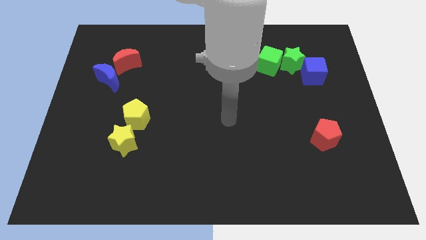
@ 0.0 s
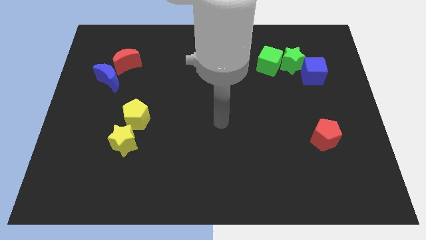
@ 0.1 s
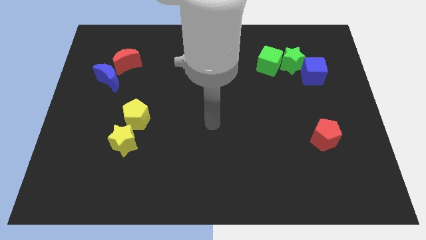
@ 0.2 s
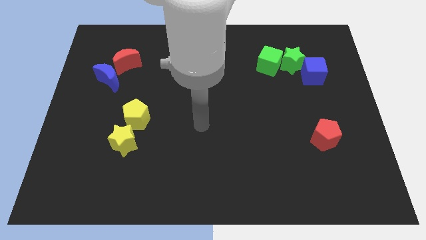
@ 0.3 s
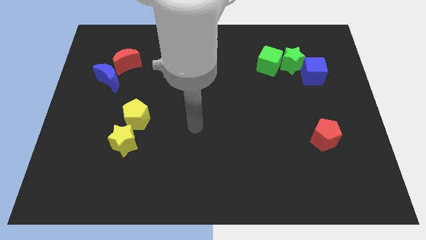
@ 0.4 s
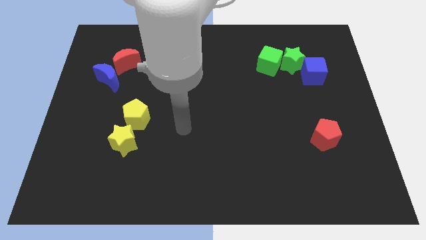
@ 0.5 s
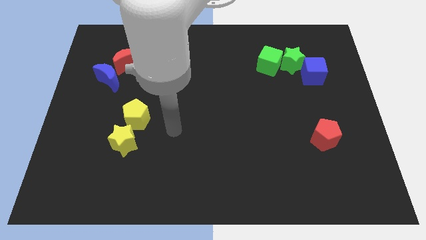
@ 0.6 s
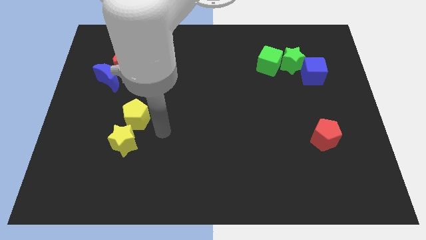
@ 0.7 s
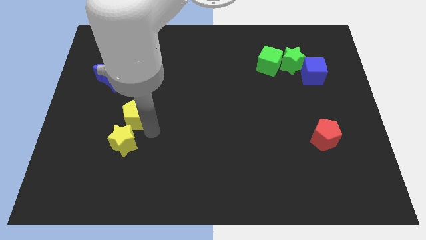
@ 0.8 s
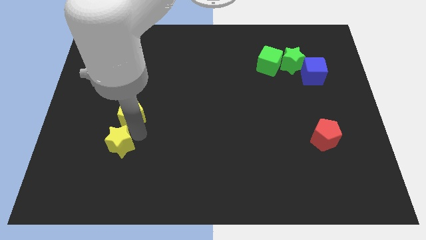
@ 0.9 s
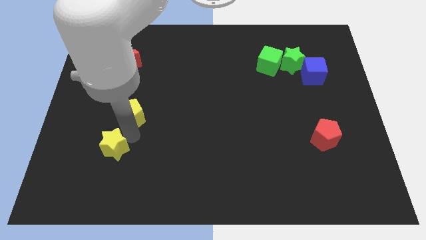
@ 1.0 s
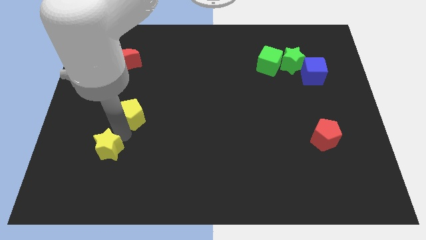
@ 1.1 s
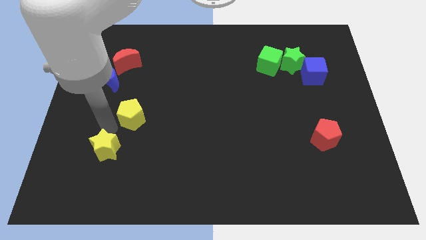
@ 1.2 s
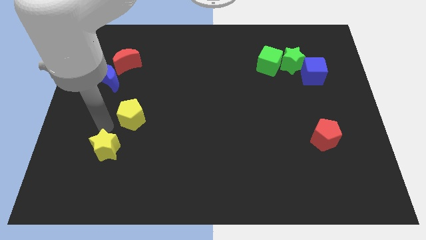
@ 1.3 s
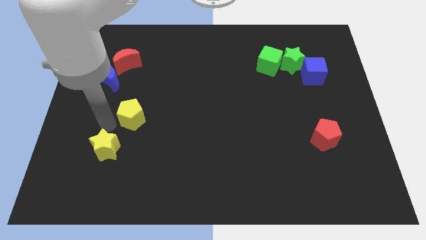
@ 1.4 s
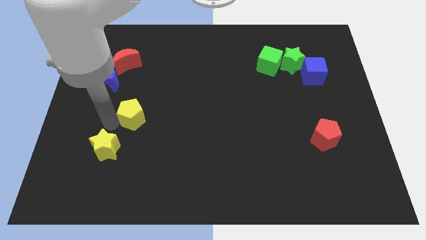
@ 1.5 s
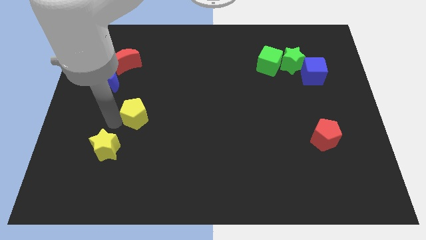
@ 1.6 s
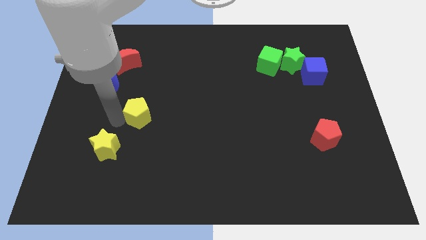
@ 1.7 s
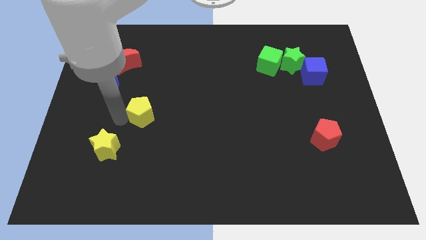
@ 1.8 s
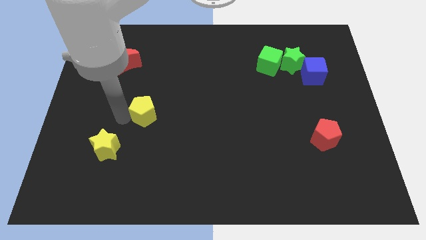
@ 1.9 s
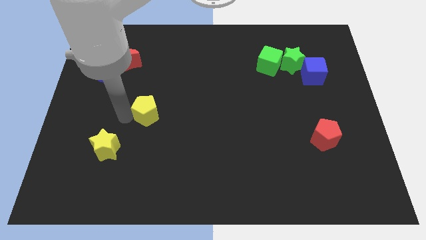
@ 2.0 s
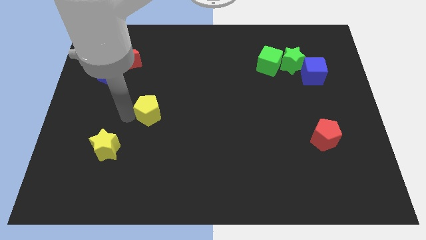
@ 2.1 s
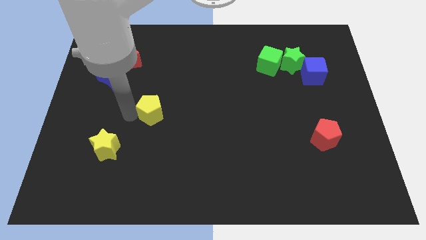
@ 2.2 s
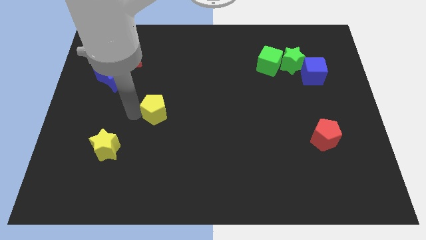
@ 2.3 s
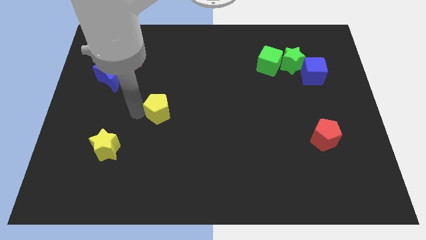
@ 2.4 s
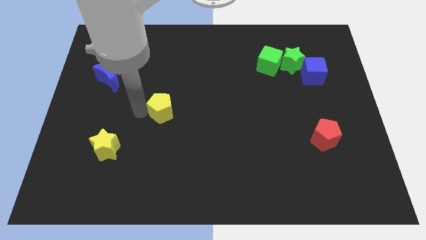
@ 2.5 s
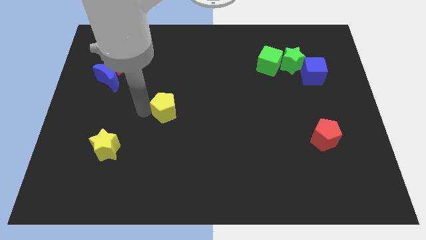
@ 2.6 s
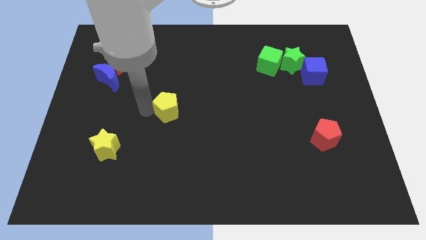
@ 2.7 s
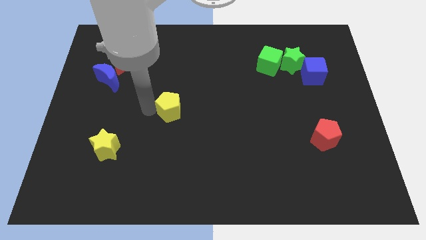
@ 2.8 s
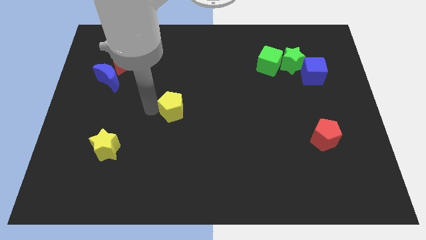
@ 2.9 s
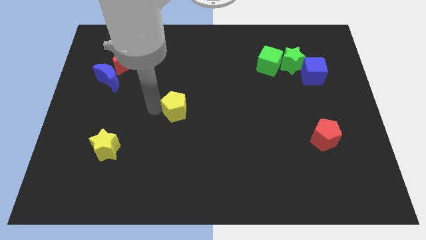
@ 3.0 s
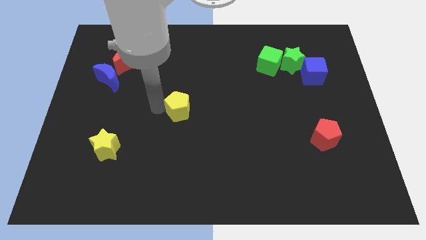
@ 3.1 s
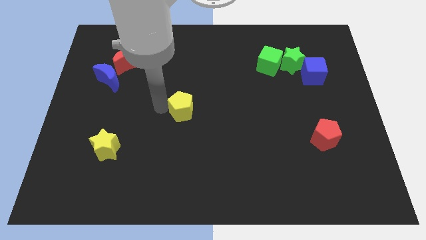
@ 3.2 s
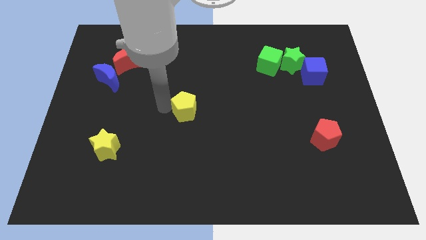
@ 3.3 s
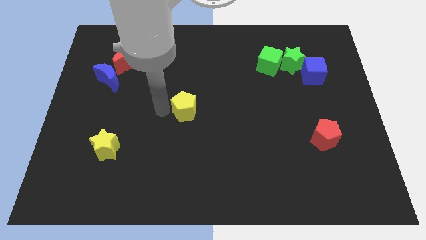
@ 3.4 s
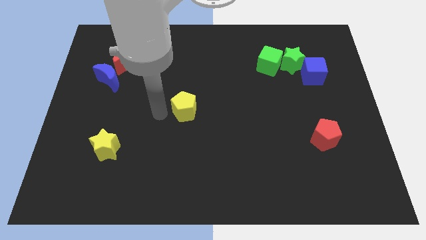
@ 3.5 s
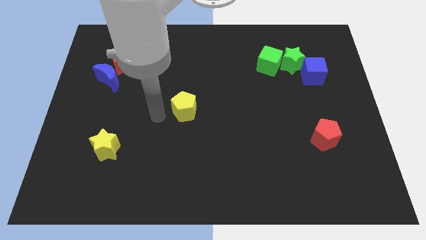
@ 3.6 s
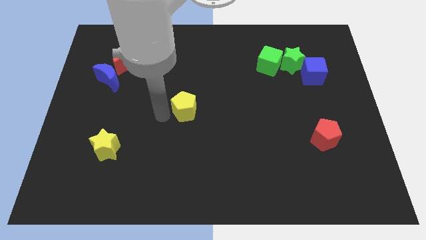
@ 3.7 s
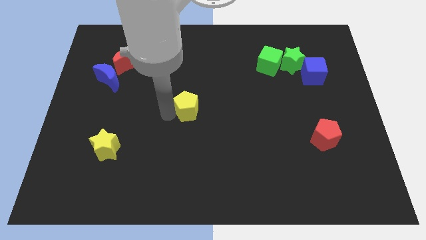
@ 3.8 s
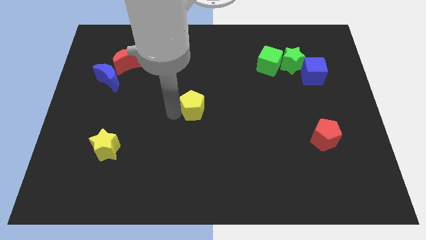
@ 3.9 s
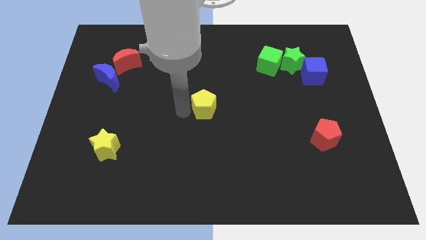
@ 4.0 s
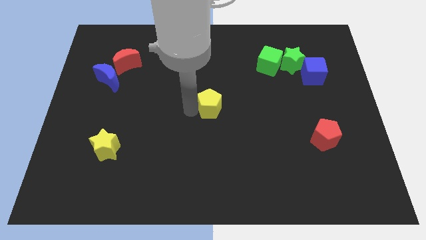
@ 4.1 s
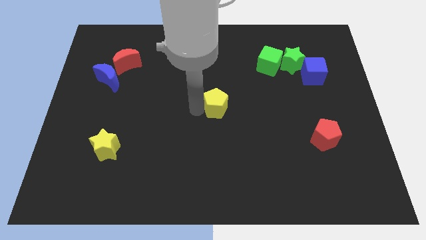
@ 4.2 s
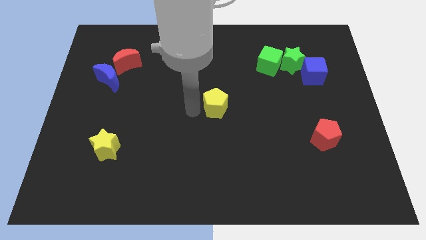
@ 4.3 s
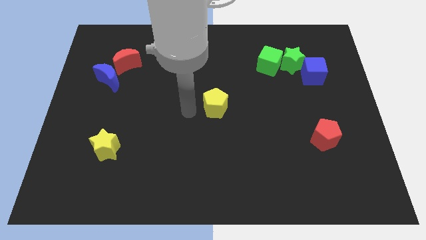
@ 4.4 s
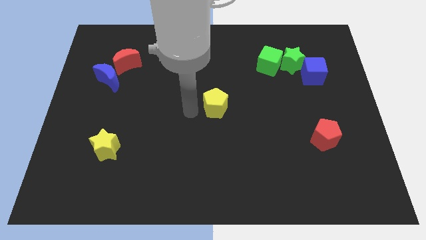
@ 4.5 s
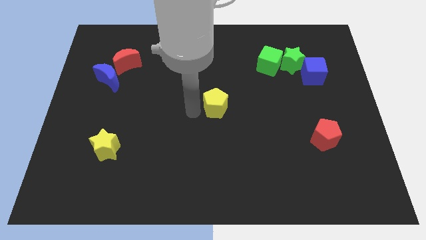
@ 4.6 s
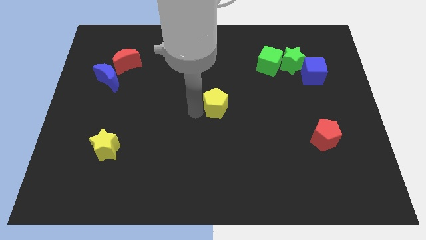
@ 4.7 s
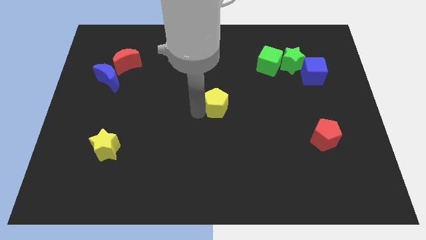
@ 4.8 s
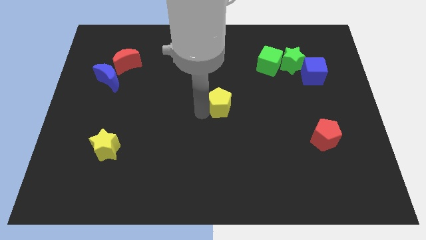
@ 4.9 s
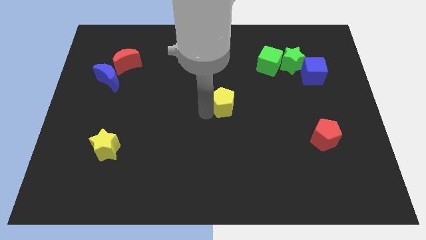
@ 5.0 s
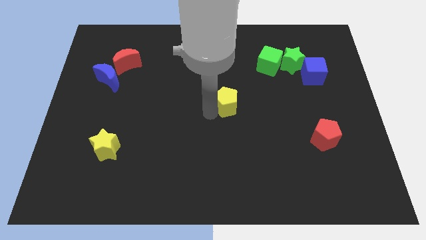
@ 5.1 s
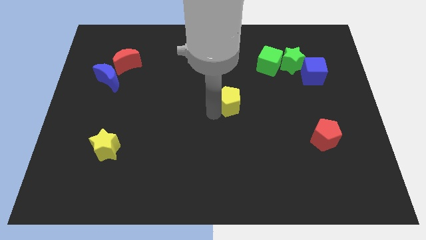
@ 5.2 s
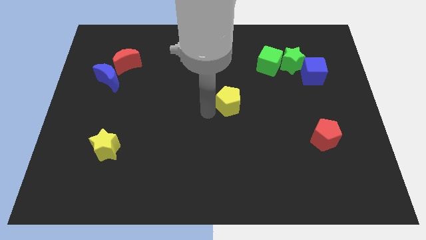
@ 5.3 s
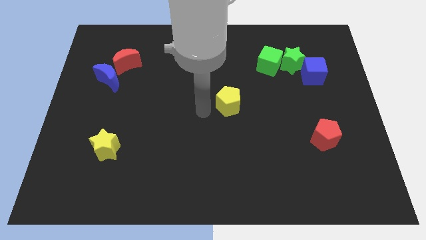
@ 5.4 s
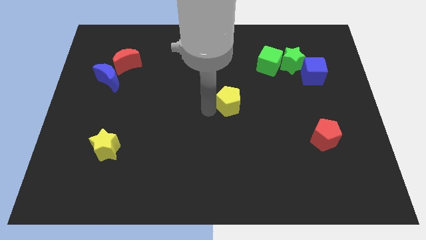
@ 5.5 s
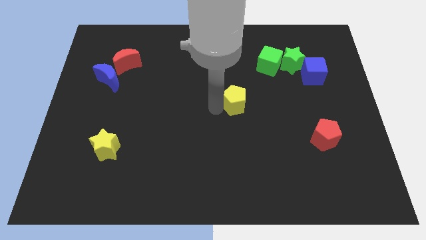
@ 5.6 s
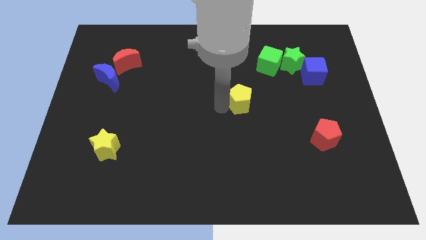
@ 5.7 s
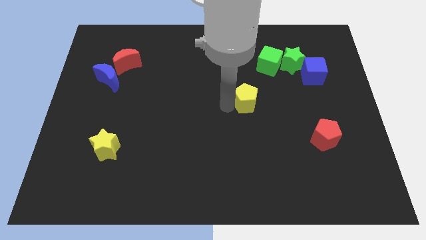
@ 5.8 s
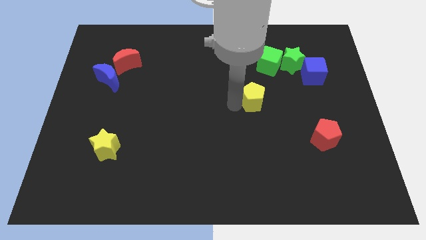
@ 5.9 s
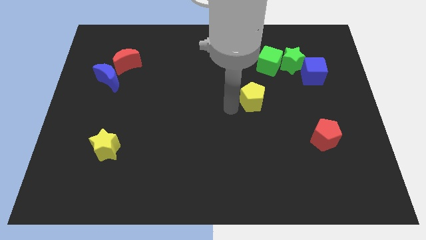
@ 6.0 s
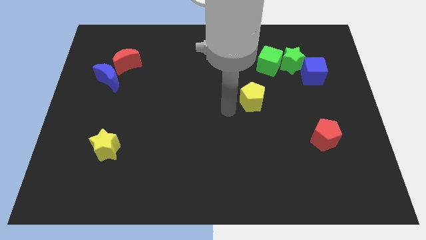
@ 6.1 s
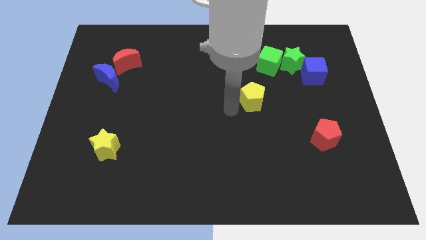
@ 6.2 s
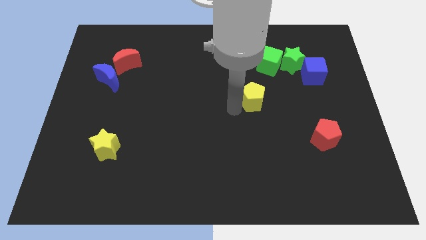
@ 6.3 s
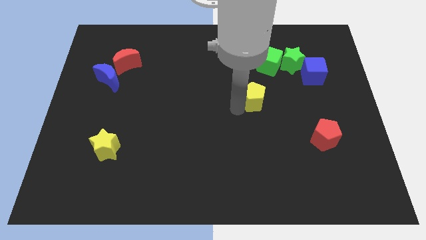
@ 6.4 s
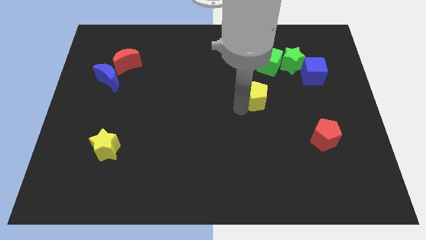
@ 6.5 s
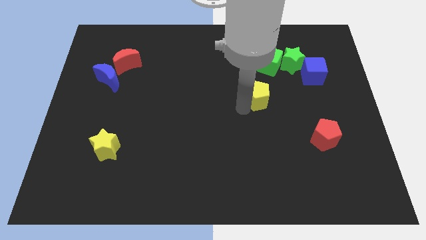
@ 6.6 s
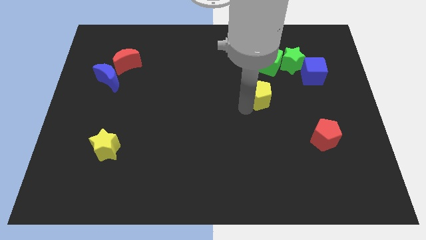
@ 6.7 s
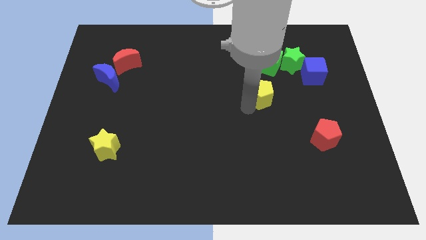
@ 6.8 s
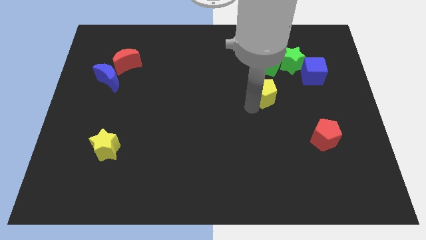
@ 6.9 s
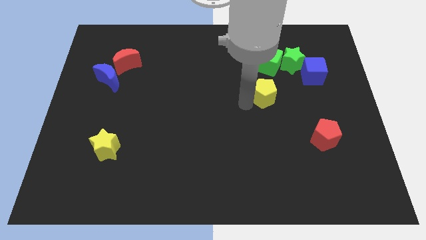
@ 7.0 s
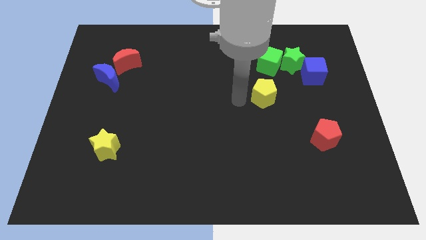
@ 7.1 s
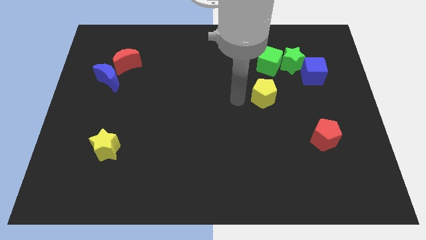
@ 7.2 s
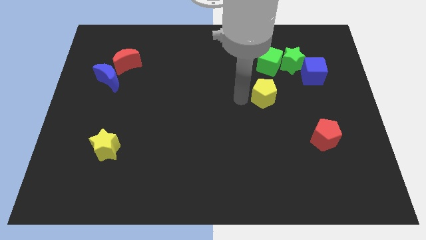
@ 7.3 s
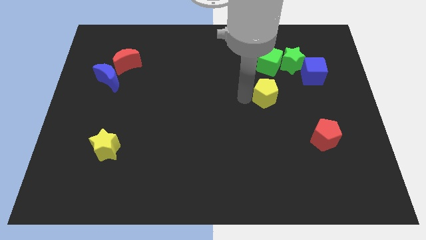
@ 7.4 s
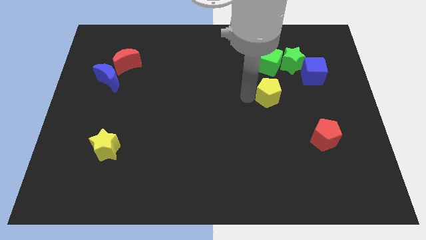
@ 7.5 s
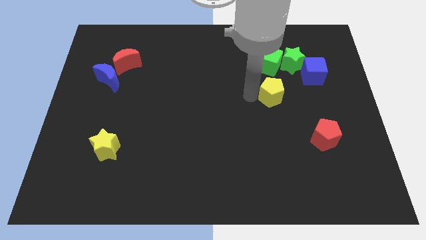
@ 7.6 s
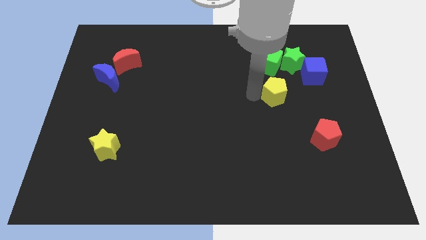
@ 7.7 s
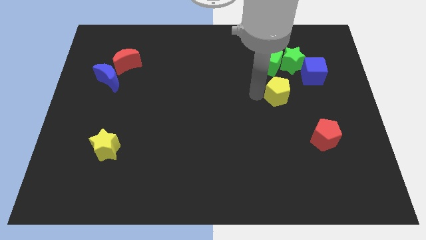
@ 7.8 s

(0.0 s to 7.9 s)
push the yellow pentagon below the green star
